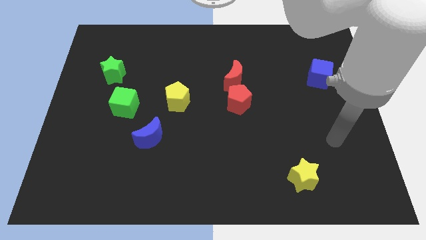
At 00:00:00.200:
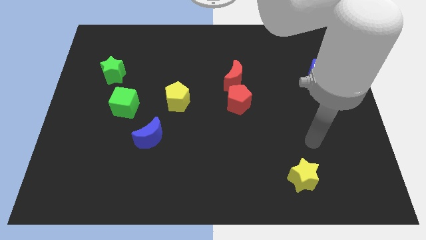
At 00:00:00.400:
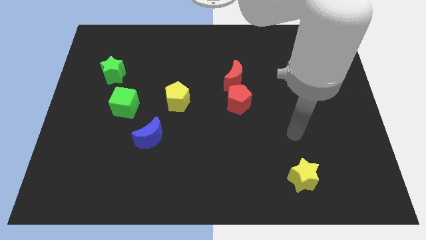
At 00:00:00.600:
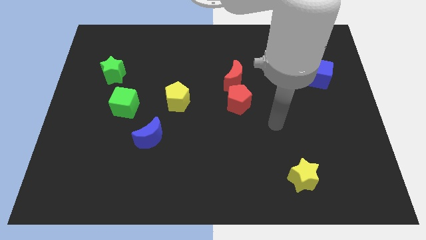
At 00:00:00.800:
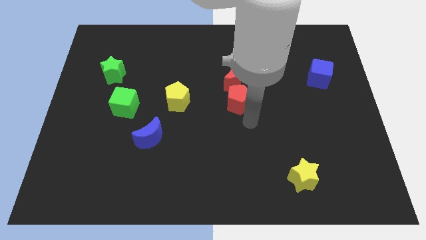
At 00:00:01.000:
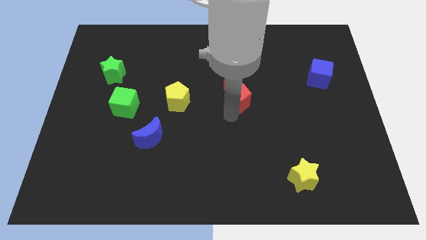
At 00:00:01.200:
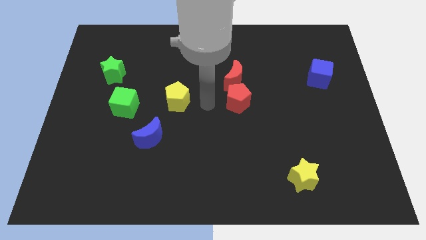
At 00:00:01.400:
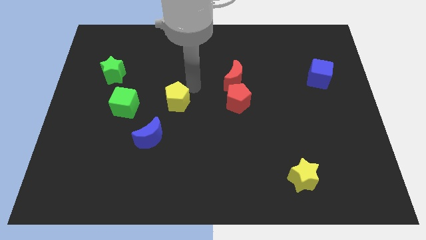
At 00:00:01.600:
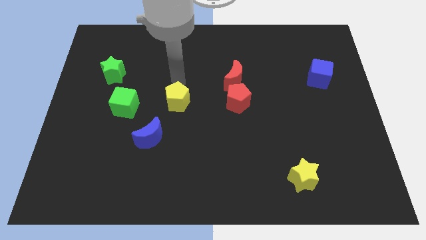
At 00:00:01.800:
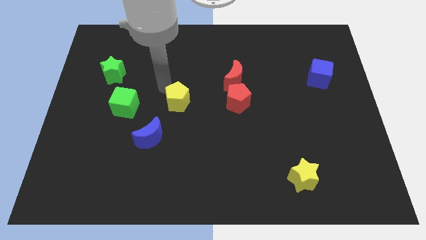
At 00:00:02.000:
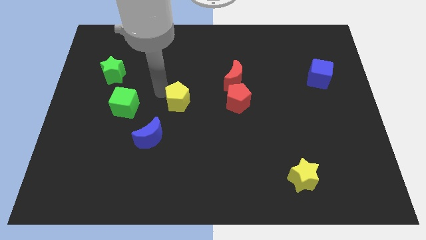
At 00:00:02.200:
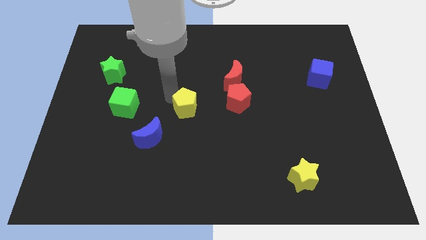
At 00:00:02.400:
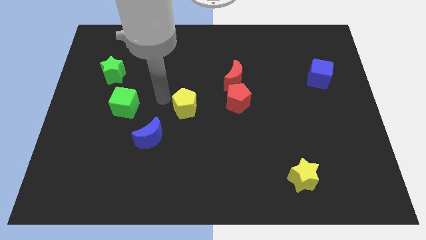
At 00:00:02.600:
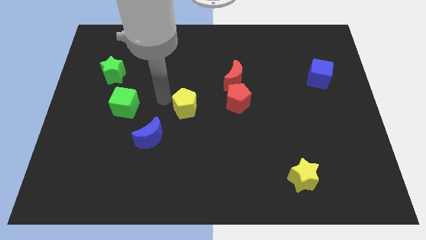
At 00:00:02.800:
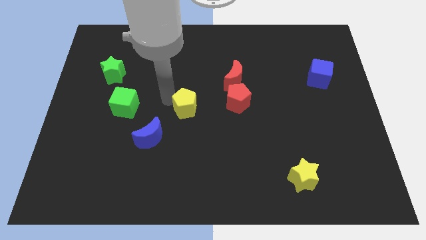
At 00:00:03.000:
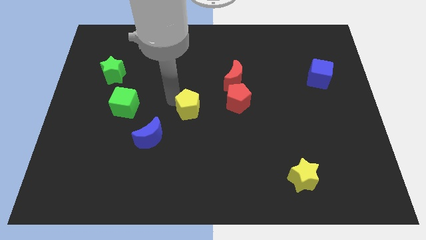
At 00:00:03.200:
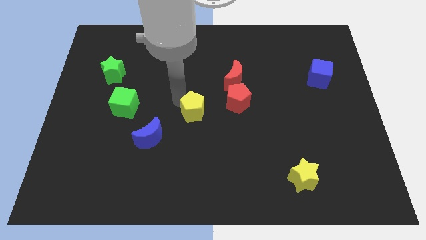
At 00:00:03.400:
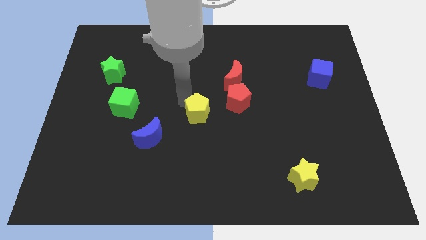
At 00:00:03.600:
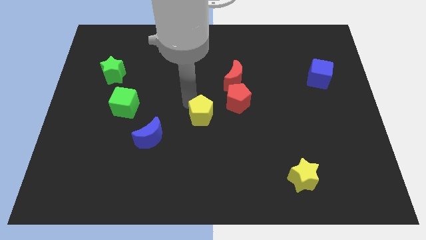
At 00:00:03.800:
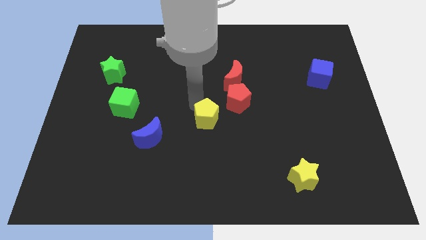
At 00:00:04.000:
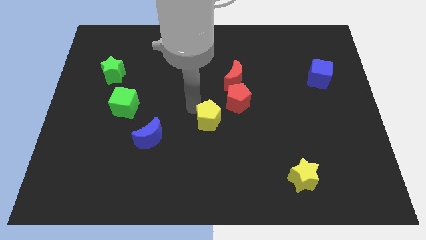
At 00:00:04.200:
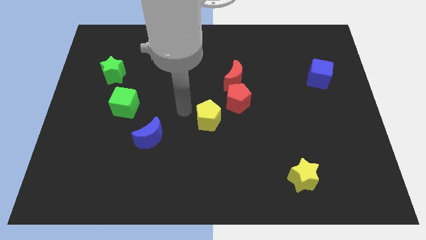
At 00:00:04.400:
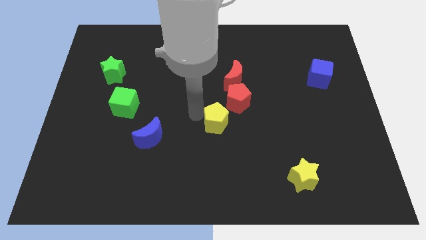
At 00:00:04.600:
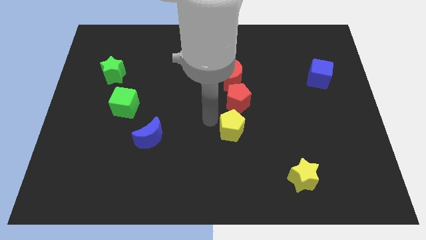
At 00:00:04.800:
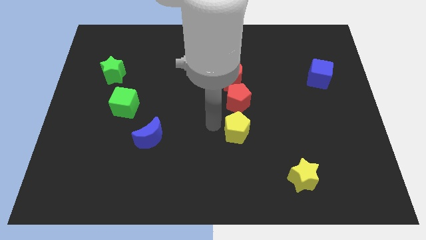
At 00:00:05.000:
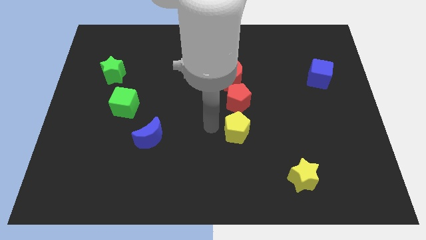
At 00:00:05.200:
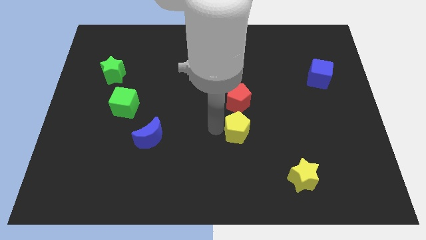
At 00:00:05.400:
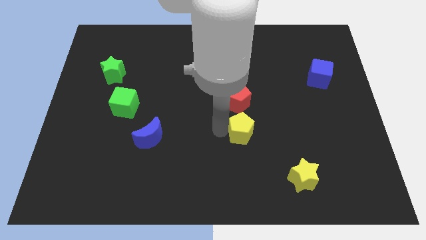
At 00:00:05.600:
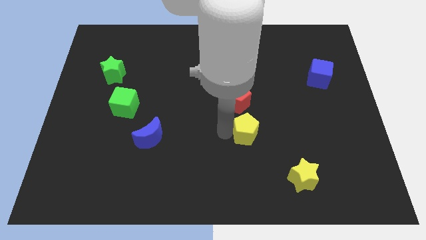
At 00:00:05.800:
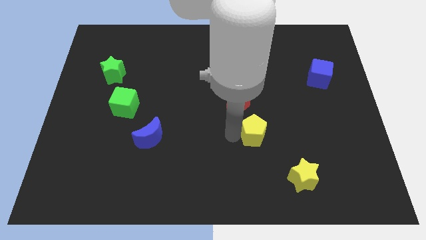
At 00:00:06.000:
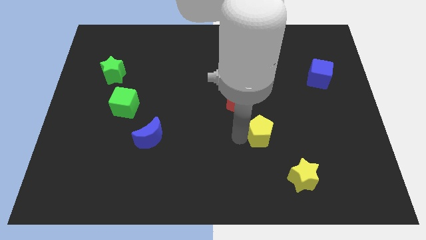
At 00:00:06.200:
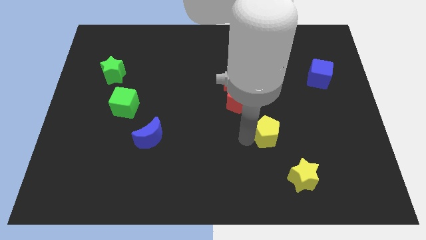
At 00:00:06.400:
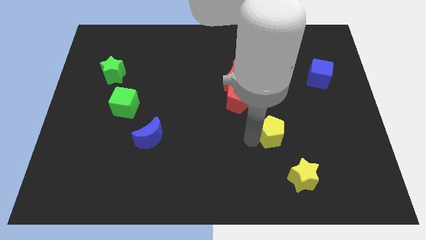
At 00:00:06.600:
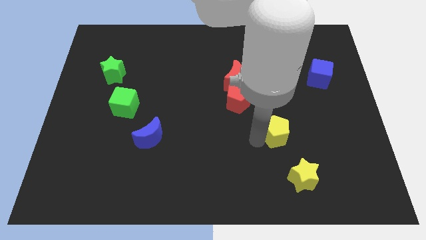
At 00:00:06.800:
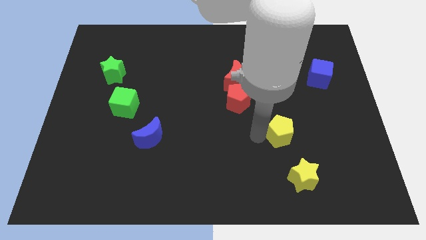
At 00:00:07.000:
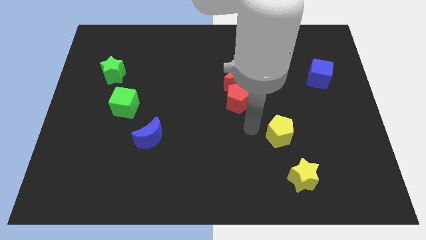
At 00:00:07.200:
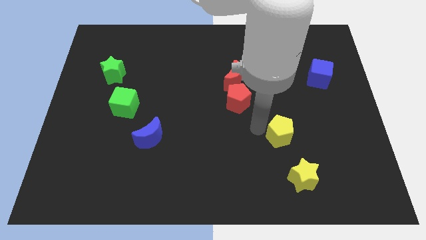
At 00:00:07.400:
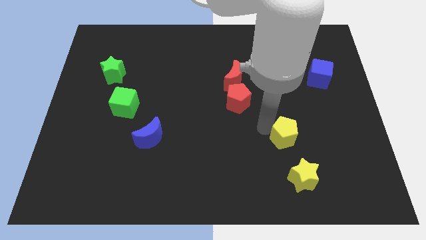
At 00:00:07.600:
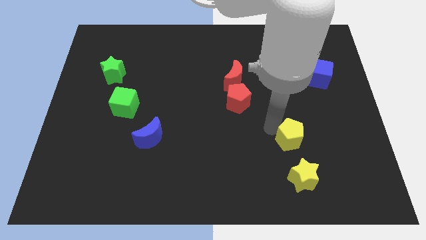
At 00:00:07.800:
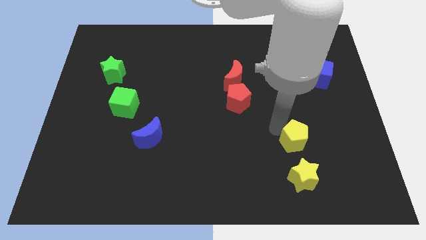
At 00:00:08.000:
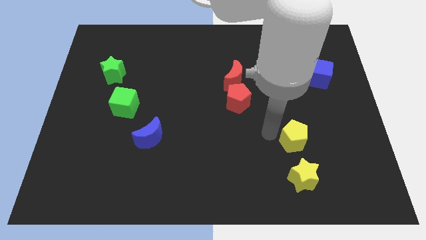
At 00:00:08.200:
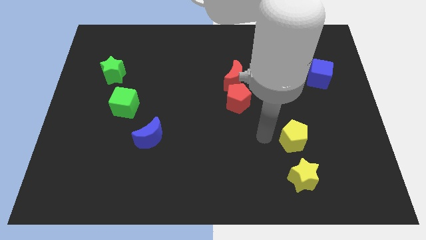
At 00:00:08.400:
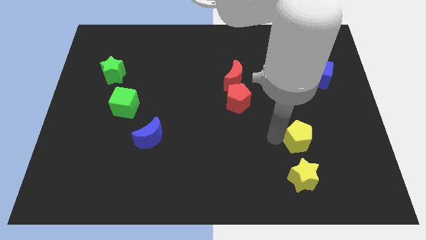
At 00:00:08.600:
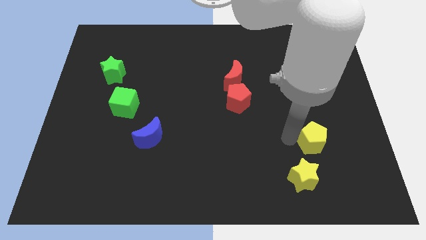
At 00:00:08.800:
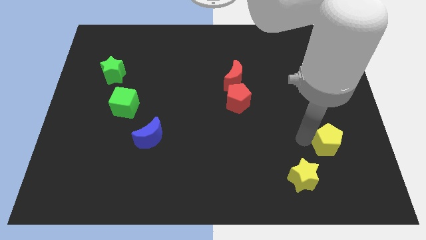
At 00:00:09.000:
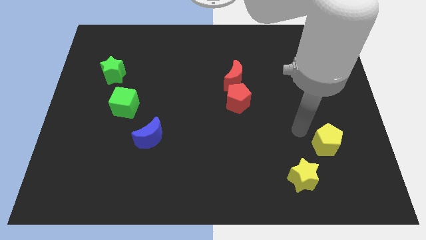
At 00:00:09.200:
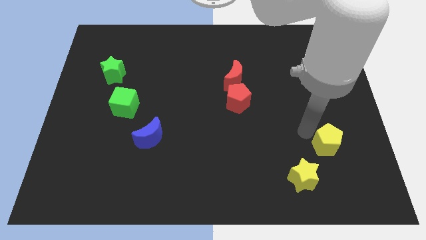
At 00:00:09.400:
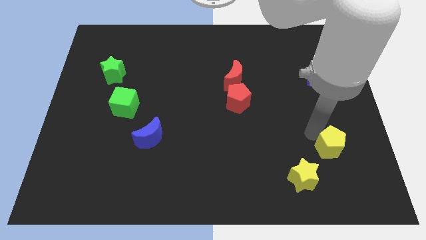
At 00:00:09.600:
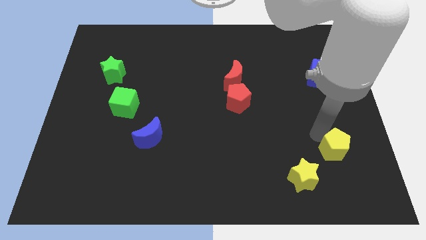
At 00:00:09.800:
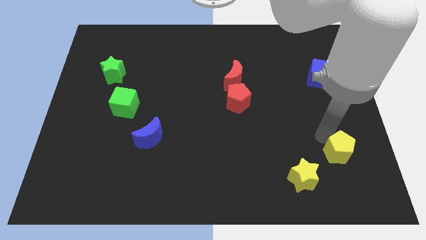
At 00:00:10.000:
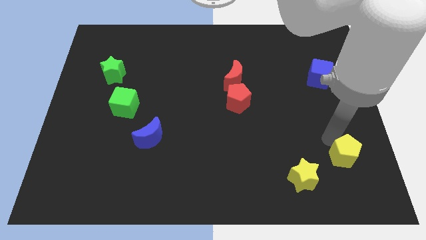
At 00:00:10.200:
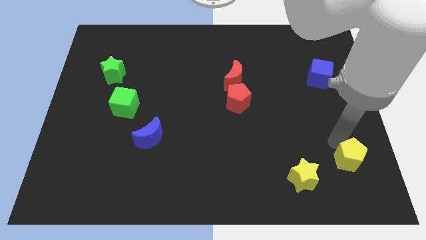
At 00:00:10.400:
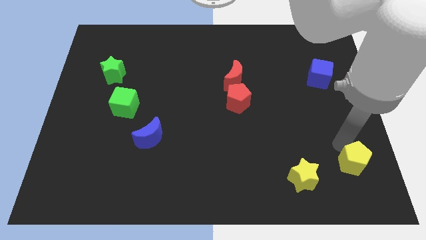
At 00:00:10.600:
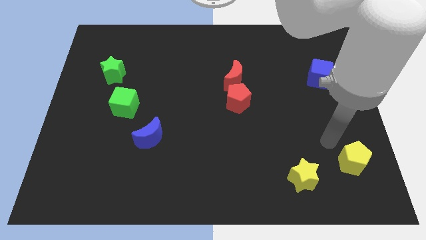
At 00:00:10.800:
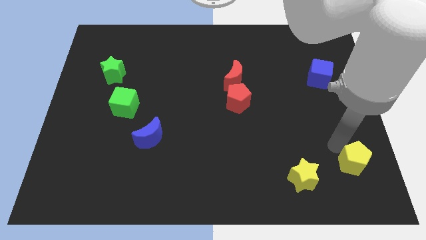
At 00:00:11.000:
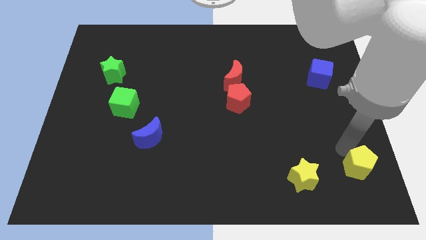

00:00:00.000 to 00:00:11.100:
move the yellow pentagon to the bottom right corner

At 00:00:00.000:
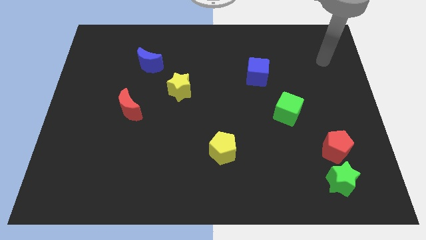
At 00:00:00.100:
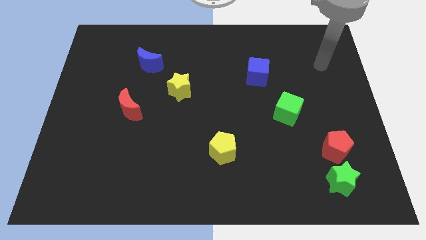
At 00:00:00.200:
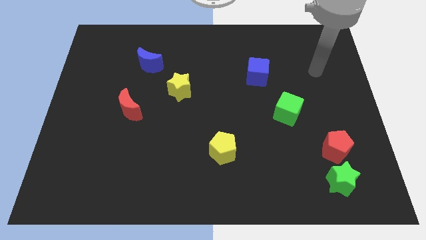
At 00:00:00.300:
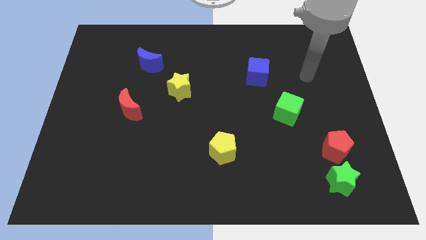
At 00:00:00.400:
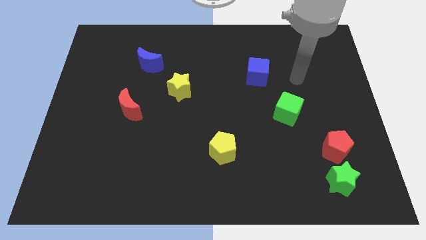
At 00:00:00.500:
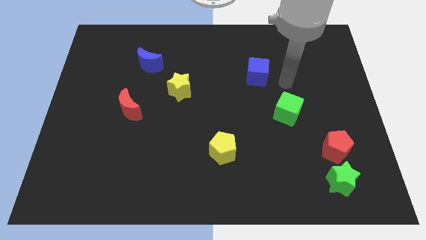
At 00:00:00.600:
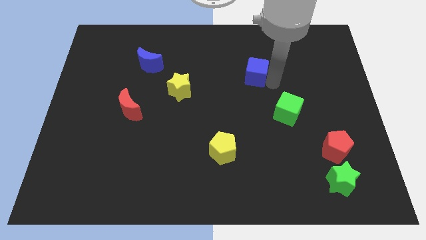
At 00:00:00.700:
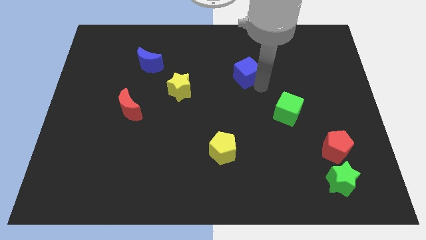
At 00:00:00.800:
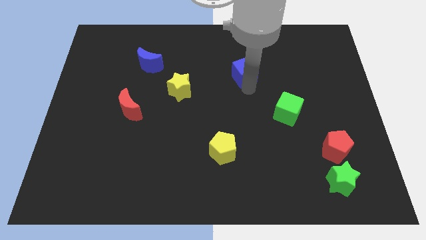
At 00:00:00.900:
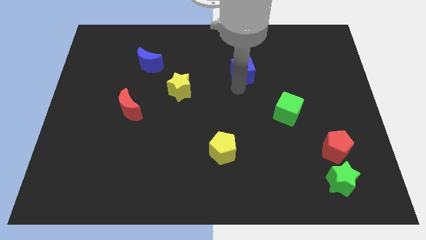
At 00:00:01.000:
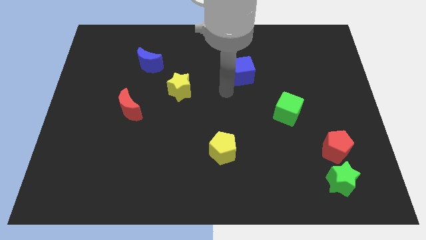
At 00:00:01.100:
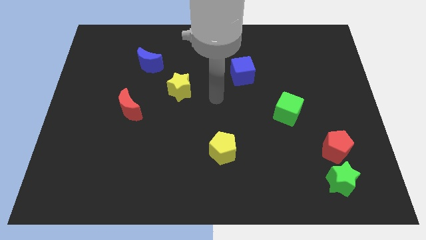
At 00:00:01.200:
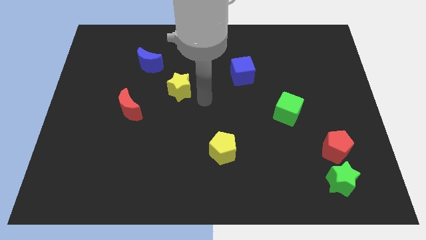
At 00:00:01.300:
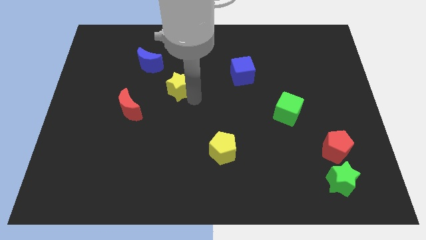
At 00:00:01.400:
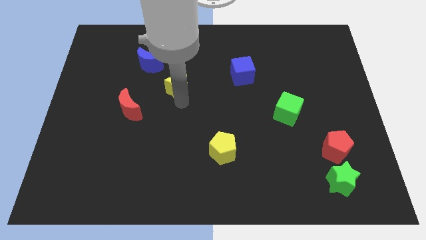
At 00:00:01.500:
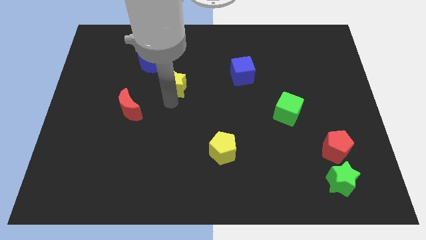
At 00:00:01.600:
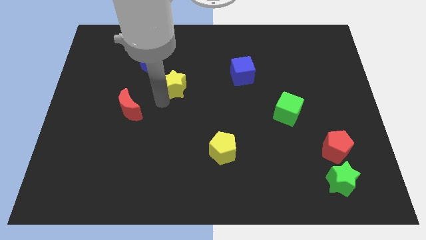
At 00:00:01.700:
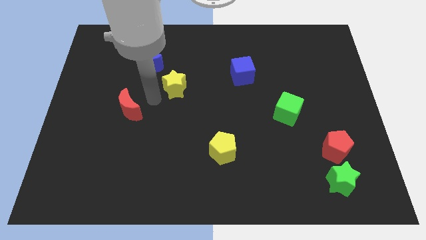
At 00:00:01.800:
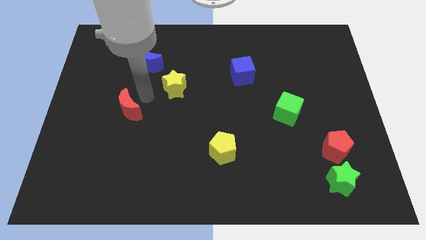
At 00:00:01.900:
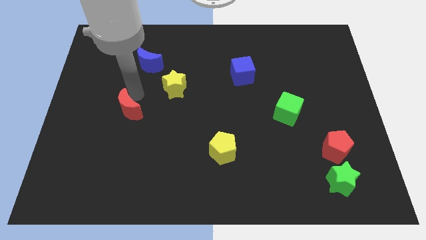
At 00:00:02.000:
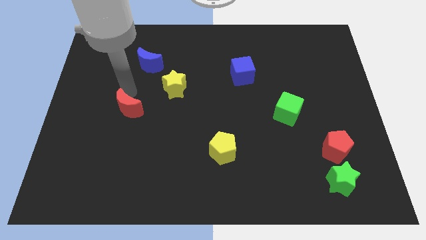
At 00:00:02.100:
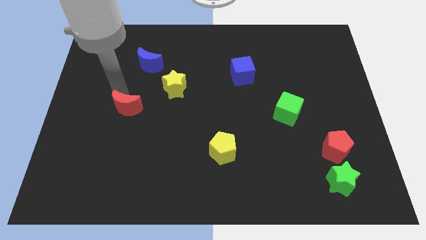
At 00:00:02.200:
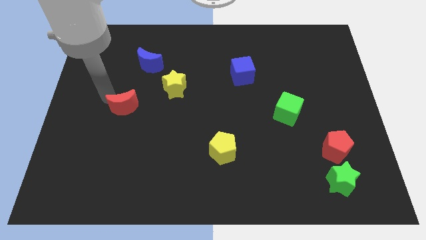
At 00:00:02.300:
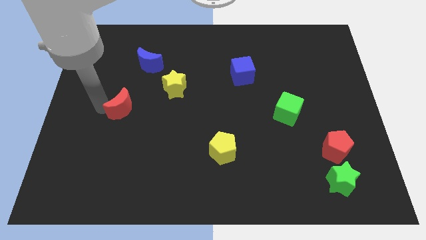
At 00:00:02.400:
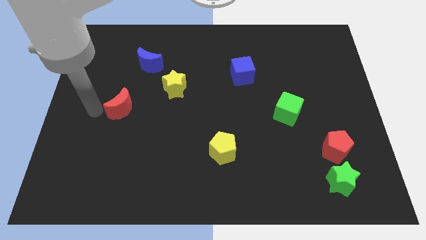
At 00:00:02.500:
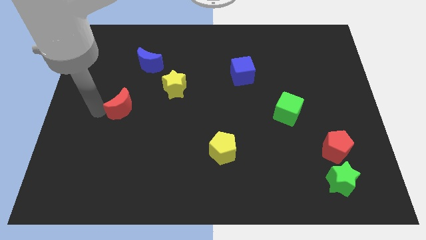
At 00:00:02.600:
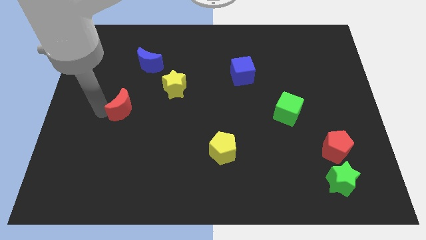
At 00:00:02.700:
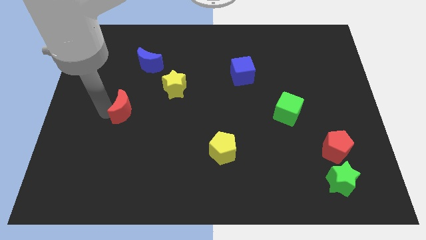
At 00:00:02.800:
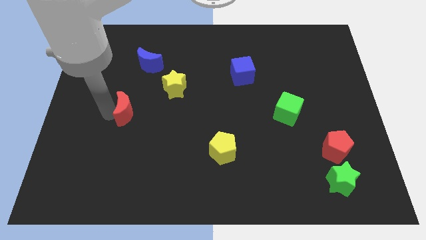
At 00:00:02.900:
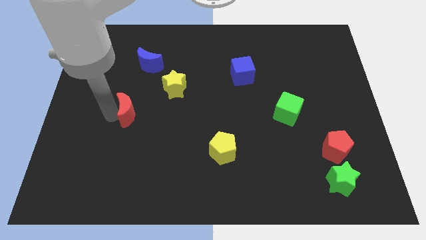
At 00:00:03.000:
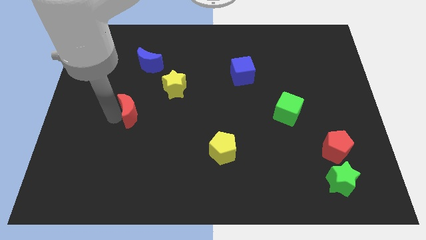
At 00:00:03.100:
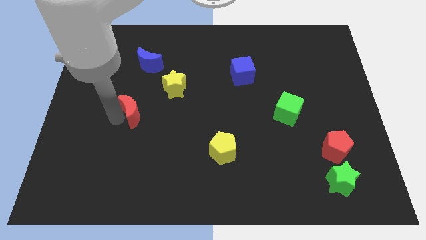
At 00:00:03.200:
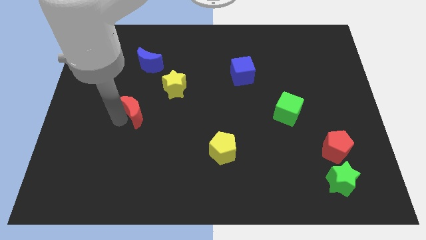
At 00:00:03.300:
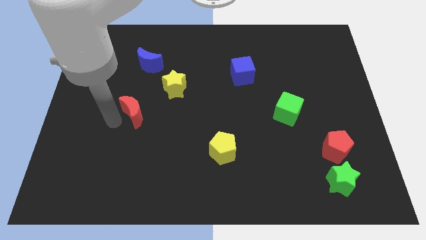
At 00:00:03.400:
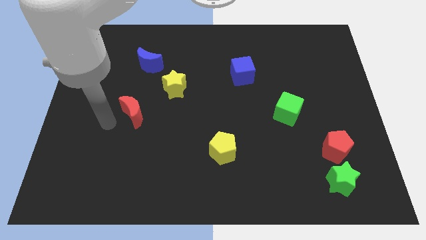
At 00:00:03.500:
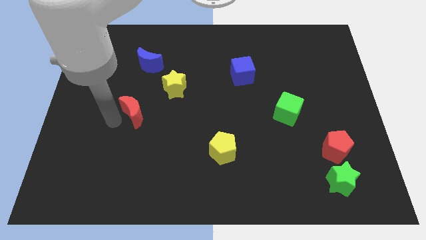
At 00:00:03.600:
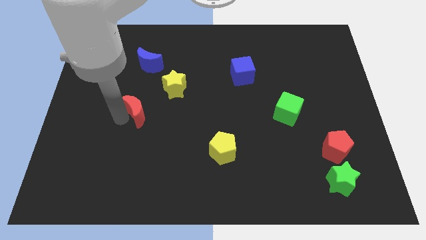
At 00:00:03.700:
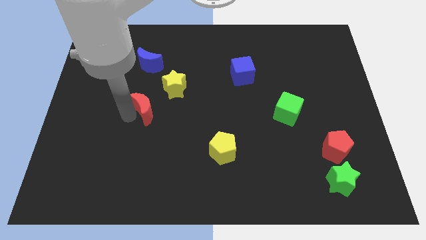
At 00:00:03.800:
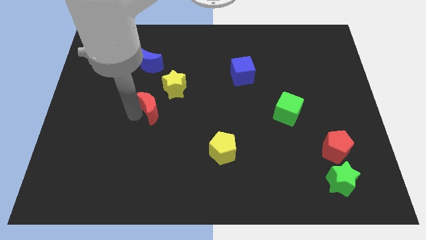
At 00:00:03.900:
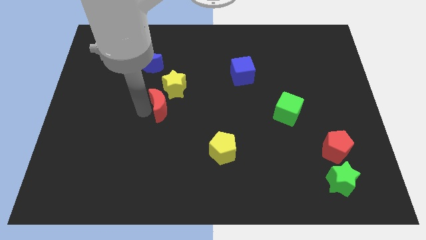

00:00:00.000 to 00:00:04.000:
put the red moon to the center
